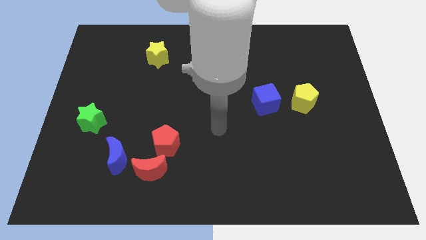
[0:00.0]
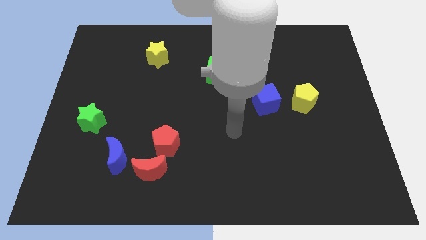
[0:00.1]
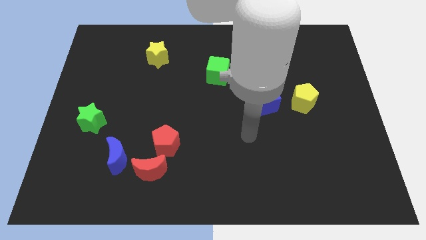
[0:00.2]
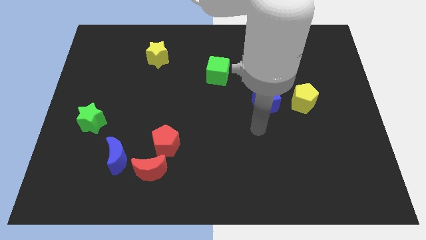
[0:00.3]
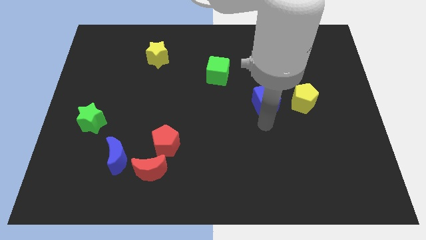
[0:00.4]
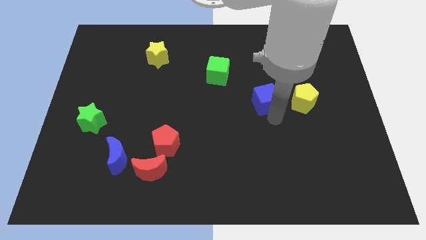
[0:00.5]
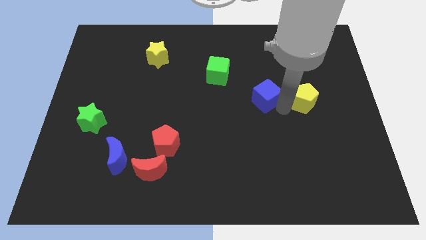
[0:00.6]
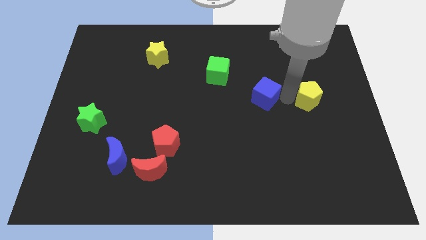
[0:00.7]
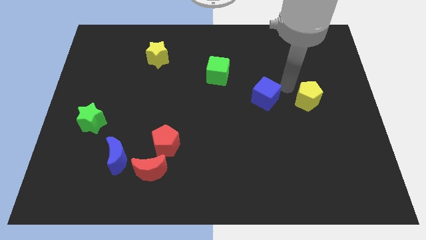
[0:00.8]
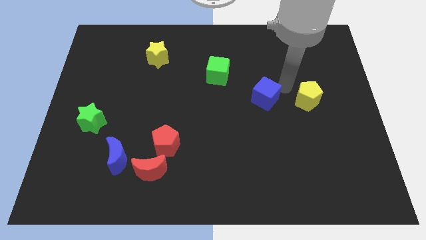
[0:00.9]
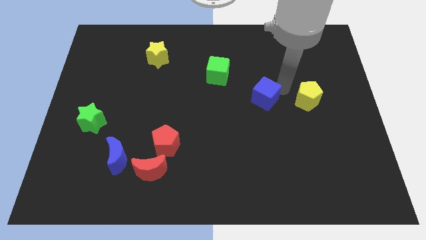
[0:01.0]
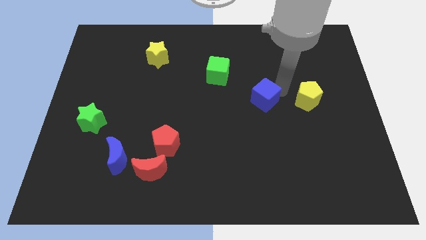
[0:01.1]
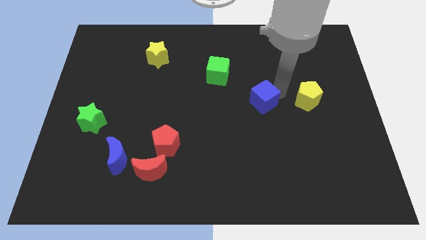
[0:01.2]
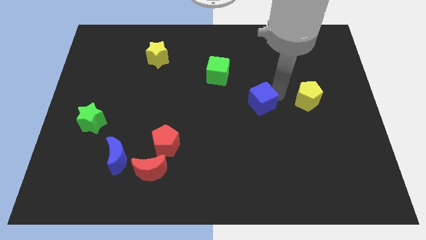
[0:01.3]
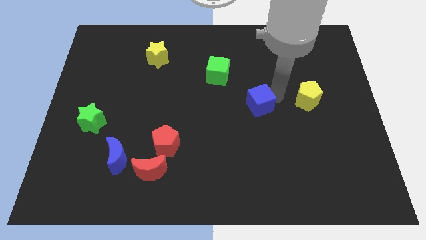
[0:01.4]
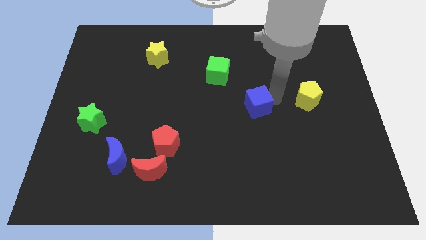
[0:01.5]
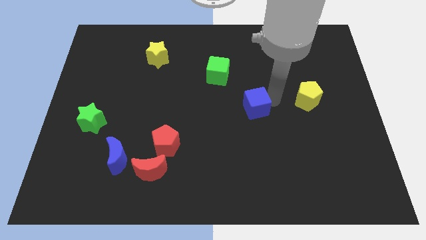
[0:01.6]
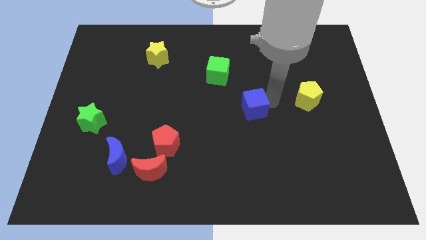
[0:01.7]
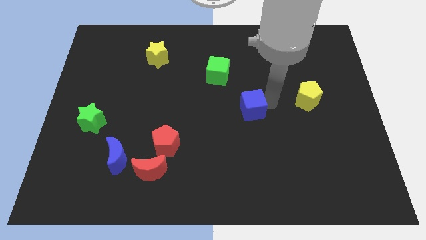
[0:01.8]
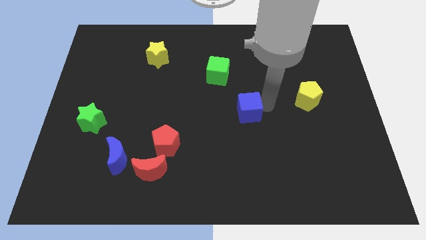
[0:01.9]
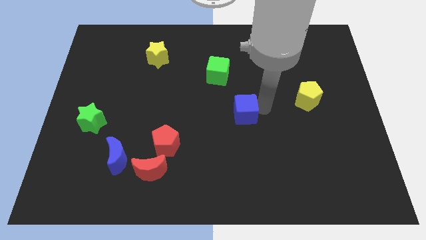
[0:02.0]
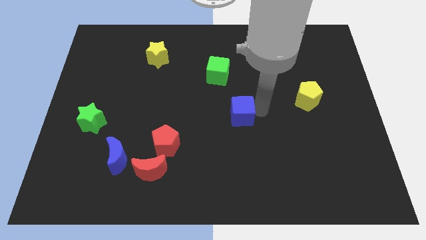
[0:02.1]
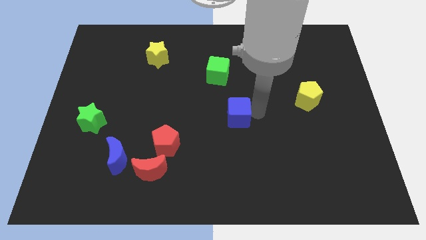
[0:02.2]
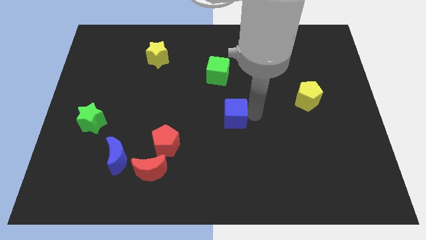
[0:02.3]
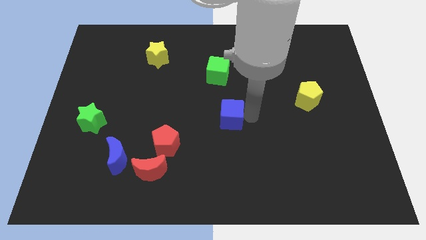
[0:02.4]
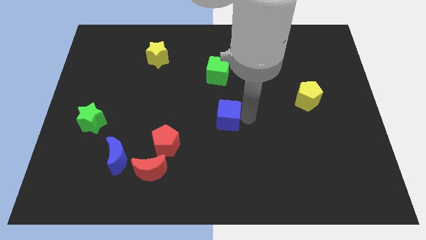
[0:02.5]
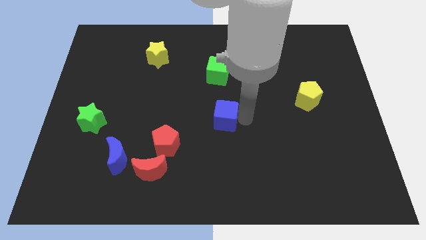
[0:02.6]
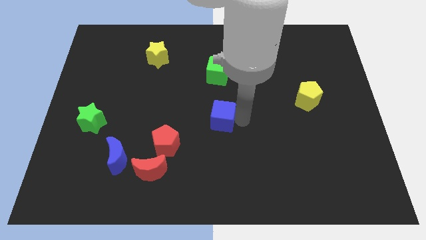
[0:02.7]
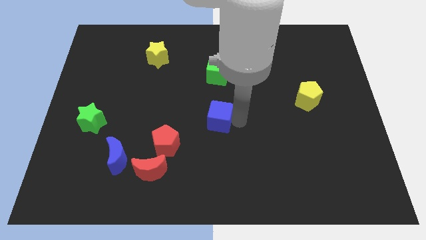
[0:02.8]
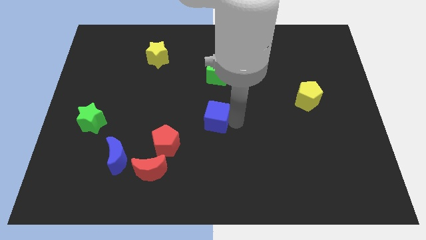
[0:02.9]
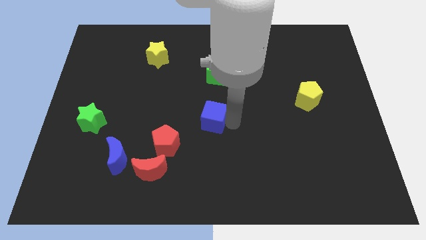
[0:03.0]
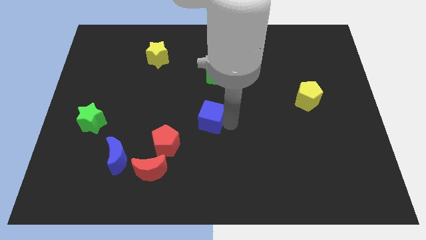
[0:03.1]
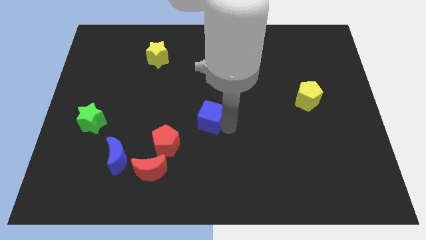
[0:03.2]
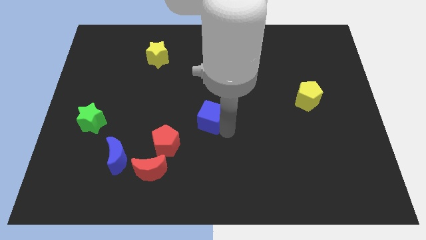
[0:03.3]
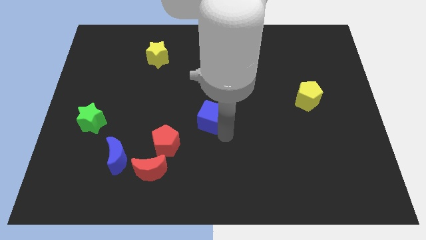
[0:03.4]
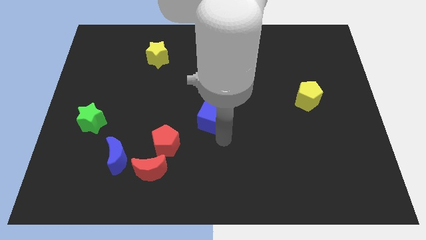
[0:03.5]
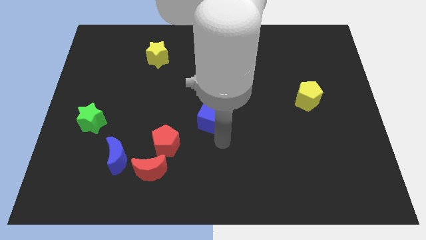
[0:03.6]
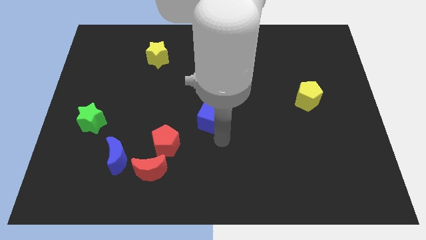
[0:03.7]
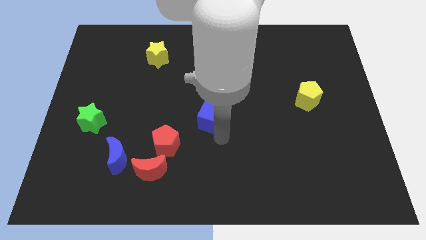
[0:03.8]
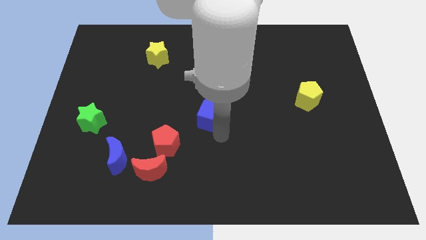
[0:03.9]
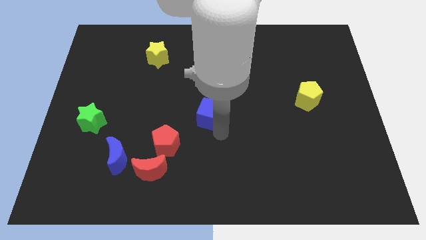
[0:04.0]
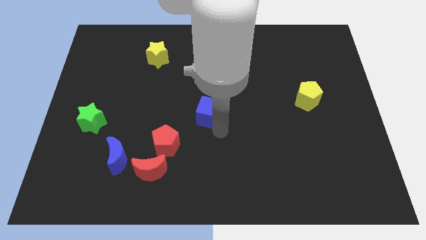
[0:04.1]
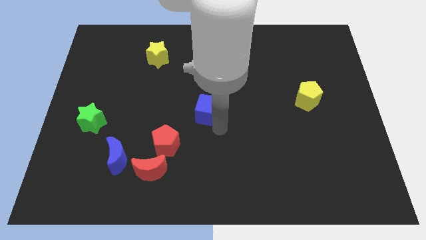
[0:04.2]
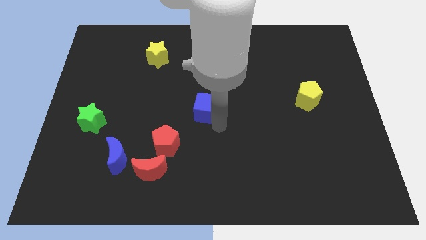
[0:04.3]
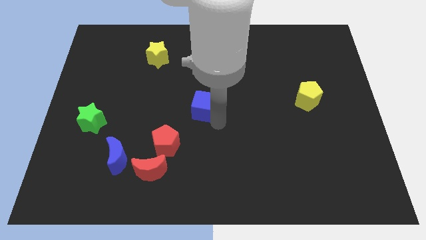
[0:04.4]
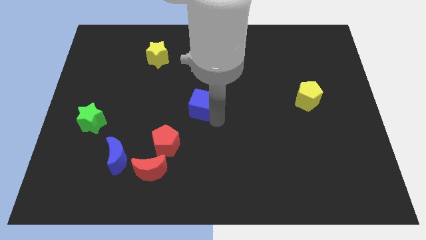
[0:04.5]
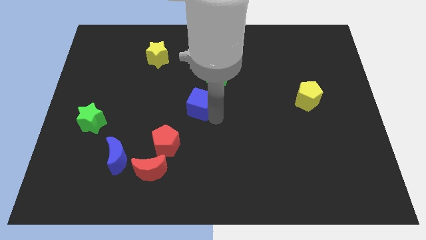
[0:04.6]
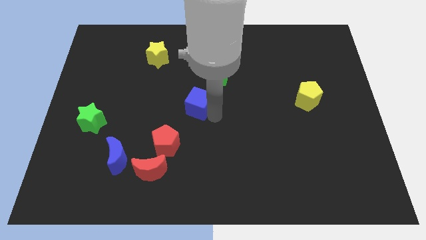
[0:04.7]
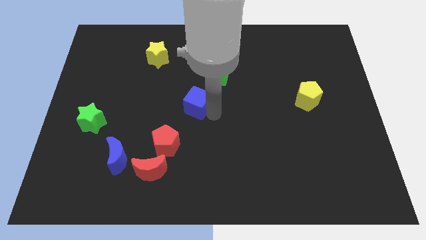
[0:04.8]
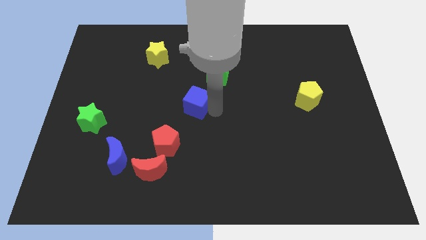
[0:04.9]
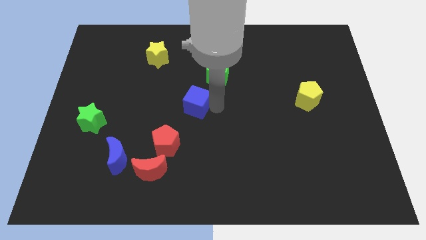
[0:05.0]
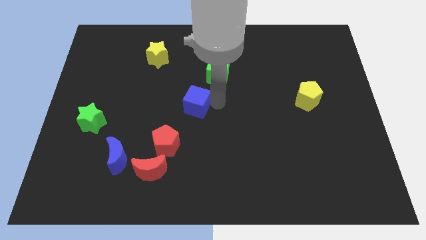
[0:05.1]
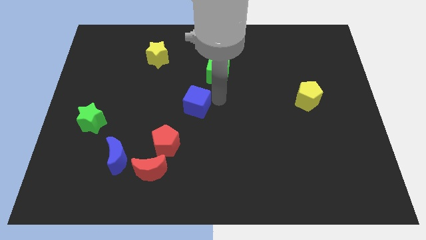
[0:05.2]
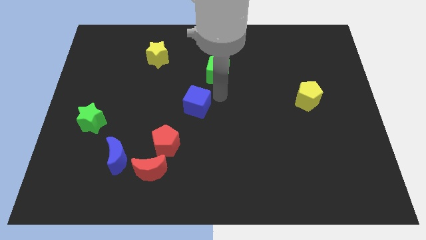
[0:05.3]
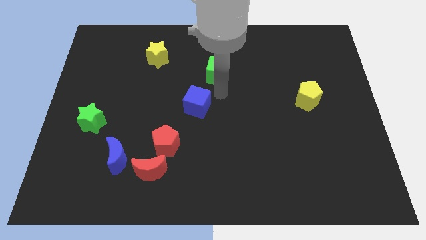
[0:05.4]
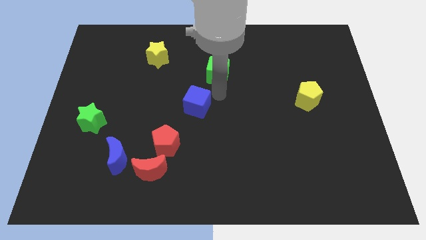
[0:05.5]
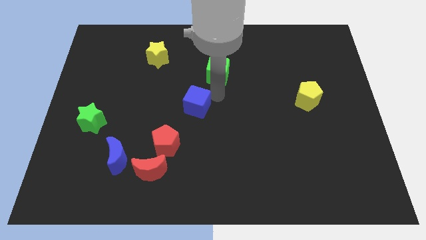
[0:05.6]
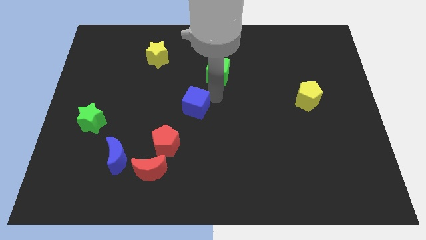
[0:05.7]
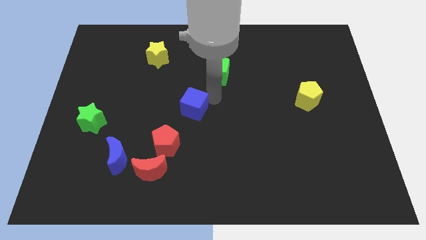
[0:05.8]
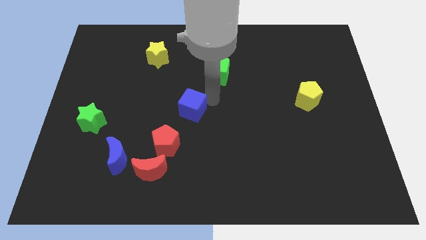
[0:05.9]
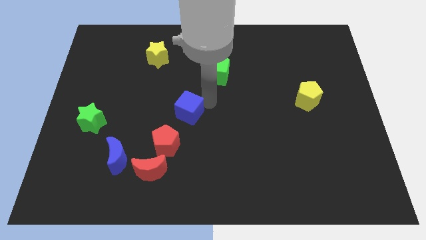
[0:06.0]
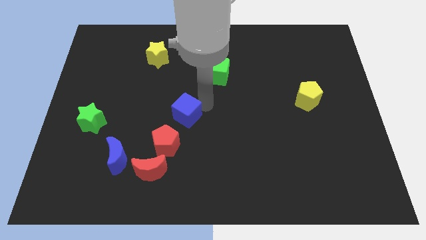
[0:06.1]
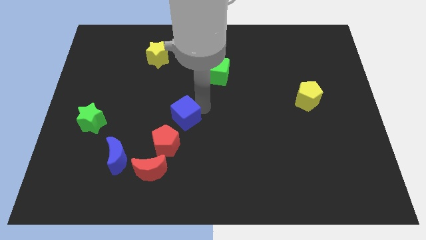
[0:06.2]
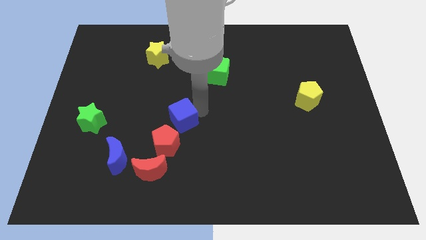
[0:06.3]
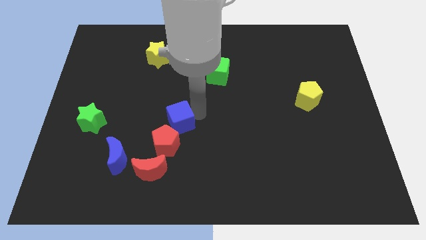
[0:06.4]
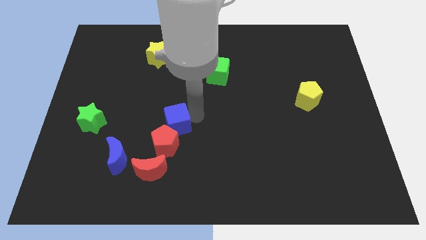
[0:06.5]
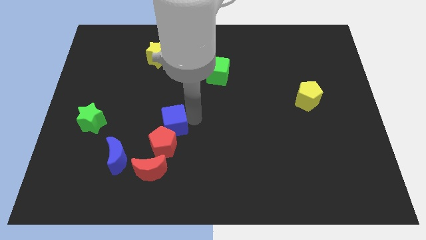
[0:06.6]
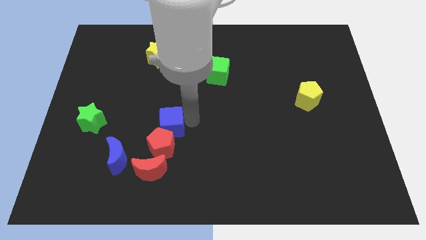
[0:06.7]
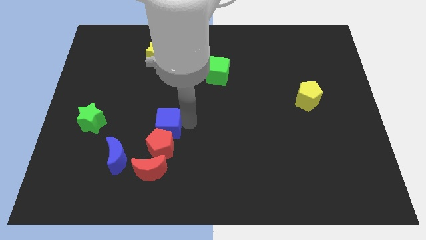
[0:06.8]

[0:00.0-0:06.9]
slide the blue cube to the top left of the red pentagon

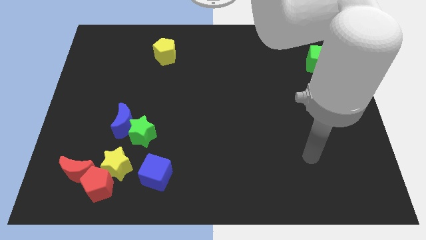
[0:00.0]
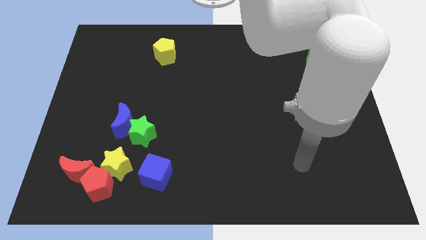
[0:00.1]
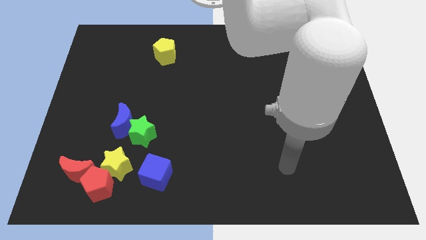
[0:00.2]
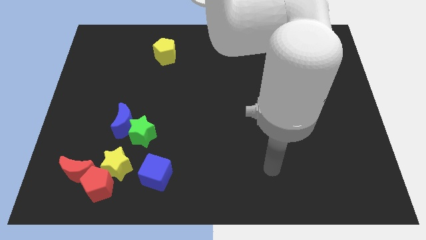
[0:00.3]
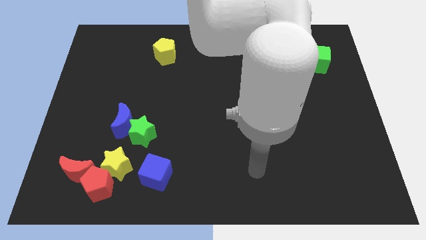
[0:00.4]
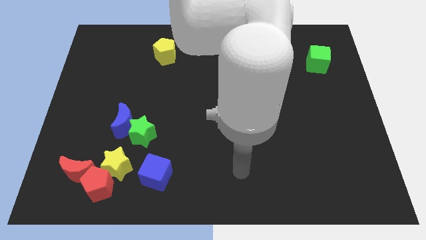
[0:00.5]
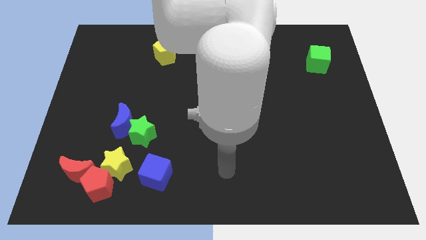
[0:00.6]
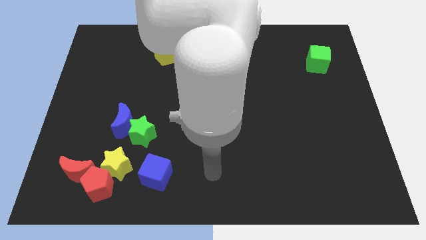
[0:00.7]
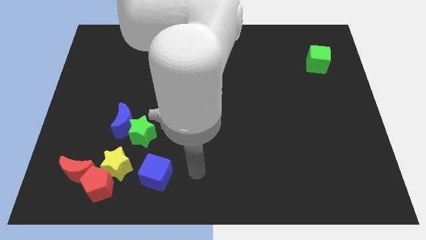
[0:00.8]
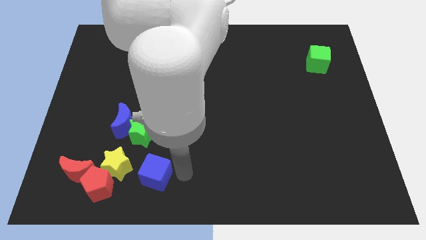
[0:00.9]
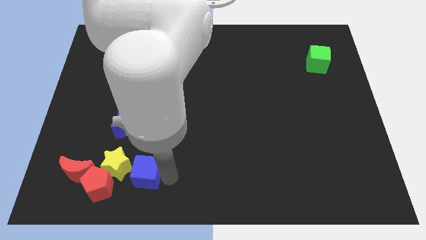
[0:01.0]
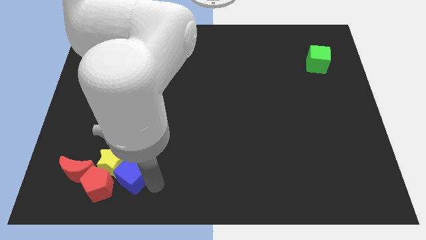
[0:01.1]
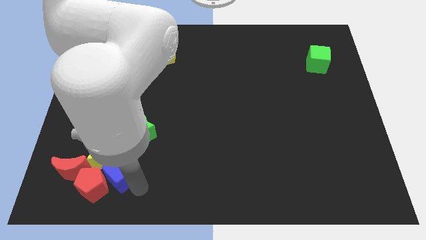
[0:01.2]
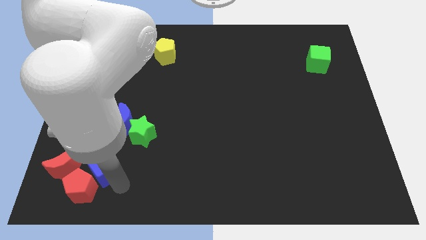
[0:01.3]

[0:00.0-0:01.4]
slide the yellow star just left of the green star
